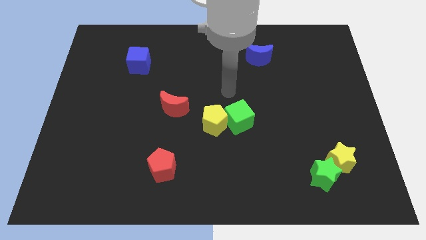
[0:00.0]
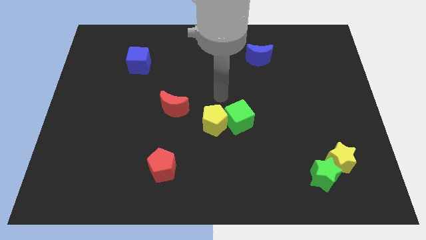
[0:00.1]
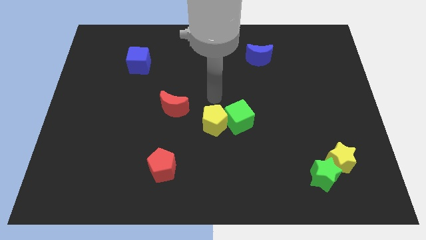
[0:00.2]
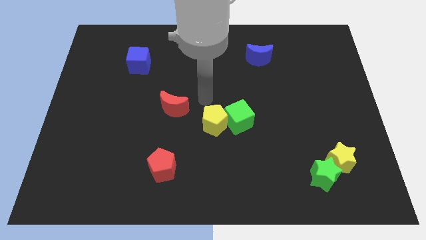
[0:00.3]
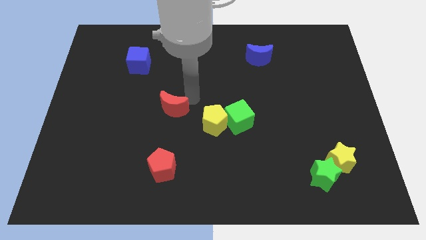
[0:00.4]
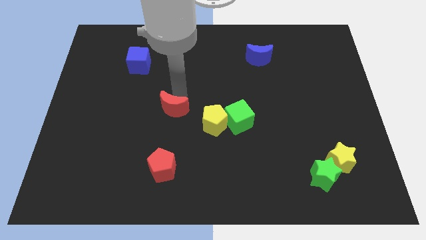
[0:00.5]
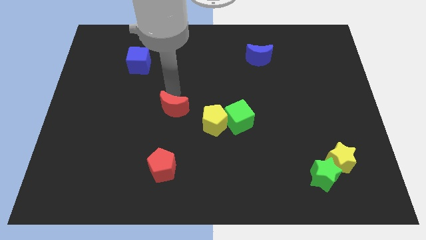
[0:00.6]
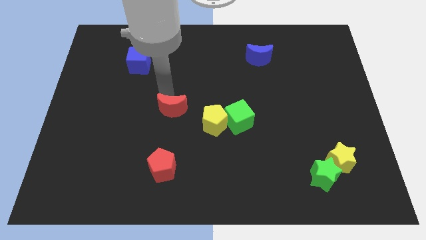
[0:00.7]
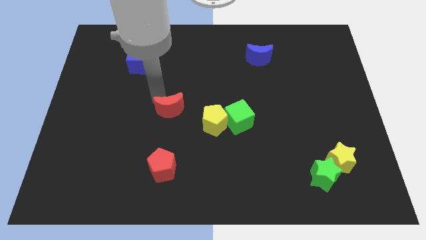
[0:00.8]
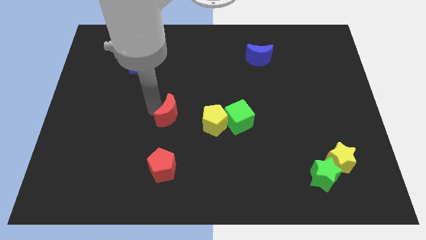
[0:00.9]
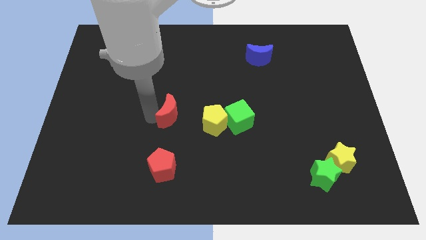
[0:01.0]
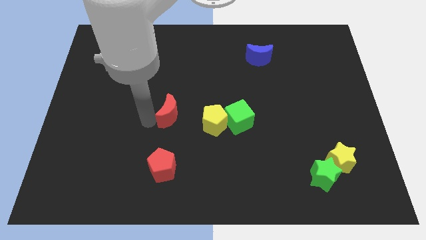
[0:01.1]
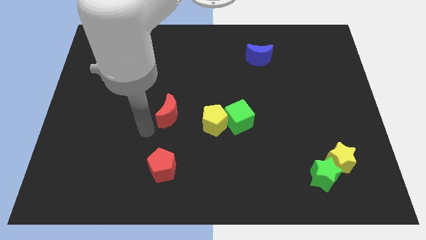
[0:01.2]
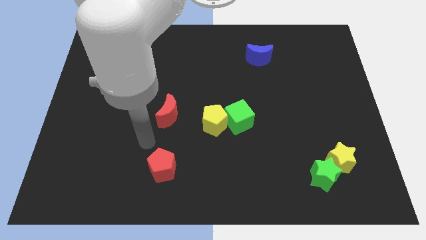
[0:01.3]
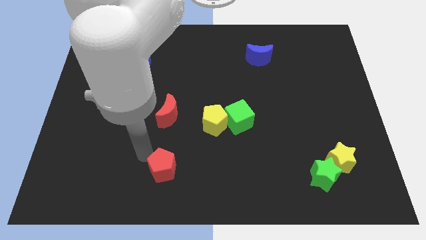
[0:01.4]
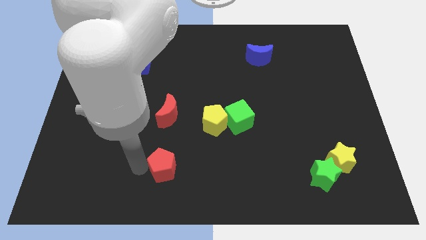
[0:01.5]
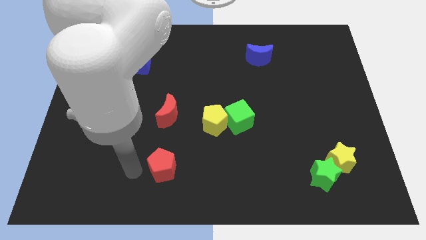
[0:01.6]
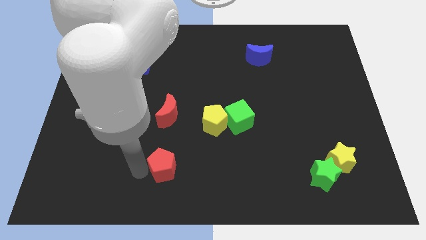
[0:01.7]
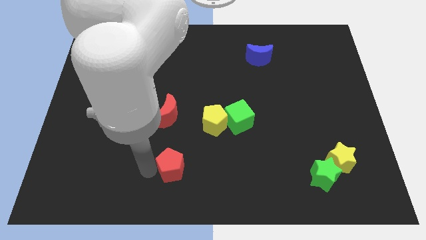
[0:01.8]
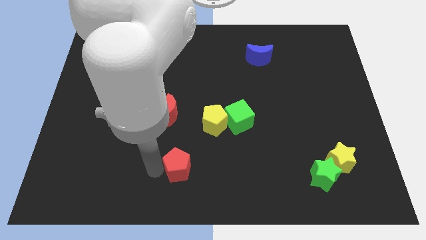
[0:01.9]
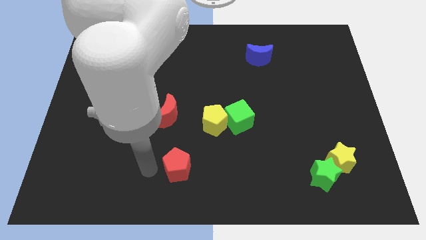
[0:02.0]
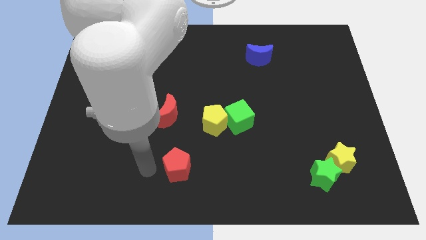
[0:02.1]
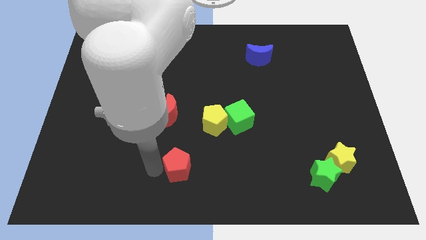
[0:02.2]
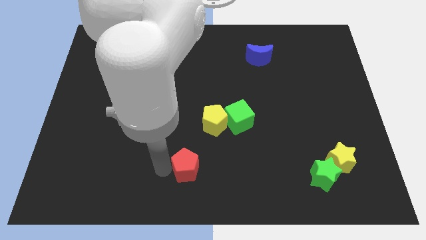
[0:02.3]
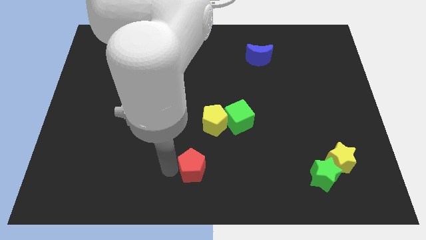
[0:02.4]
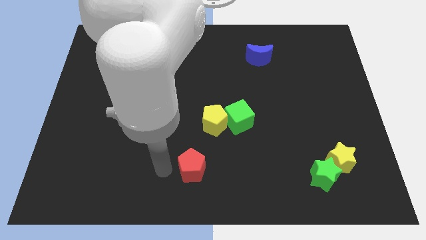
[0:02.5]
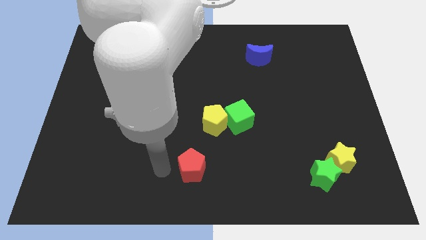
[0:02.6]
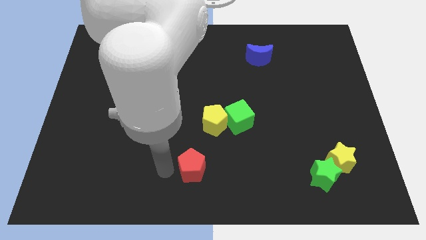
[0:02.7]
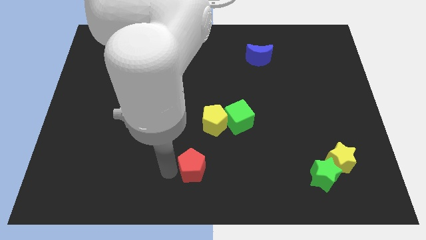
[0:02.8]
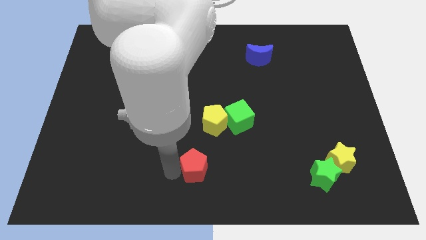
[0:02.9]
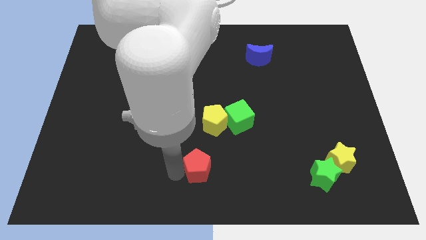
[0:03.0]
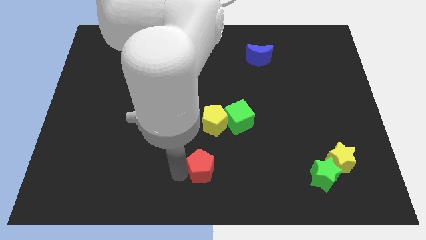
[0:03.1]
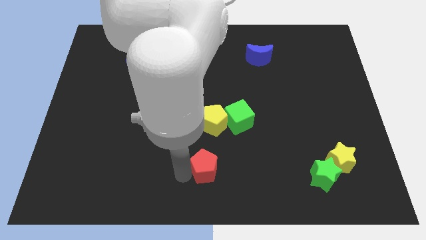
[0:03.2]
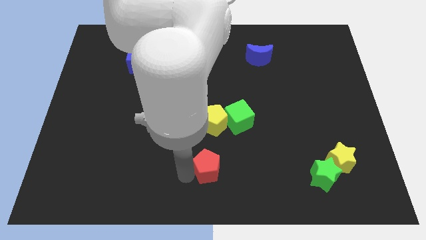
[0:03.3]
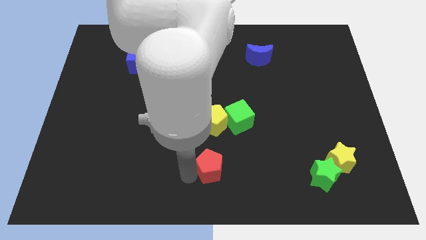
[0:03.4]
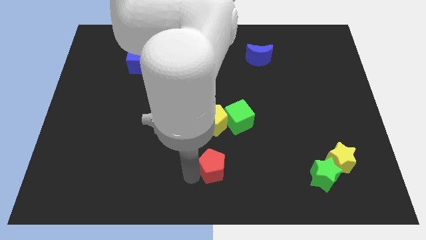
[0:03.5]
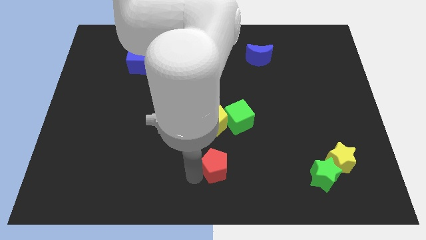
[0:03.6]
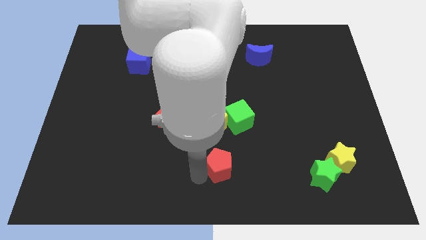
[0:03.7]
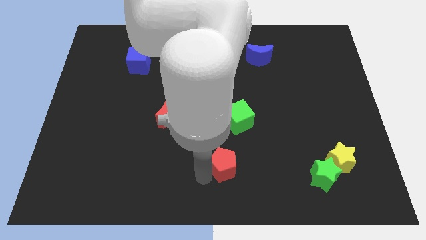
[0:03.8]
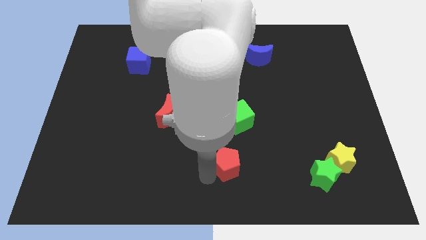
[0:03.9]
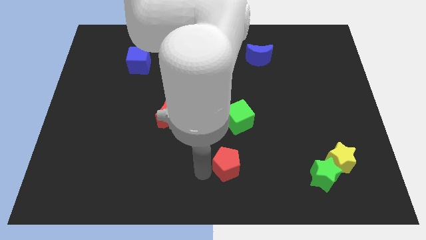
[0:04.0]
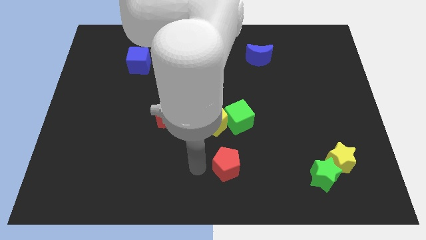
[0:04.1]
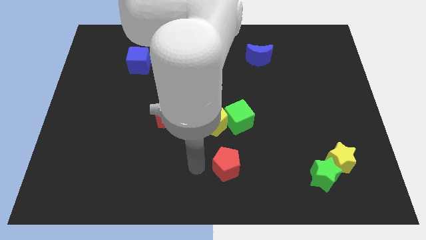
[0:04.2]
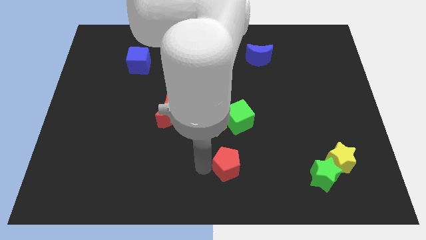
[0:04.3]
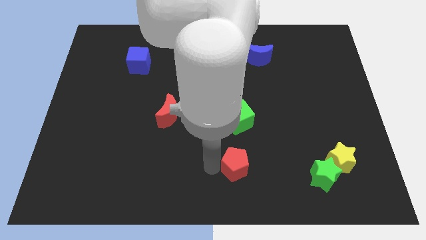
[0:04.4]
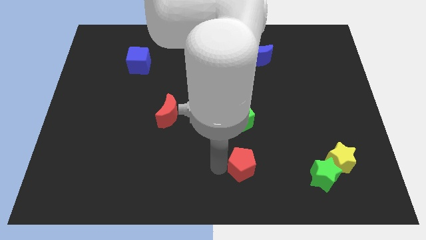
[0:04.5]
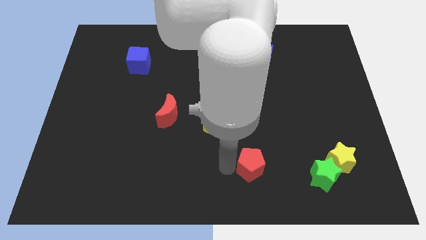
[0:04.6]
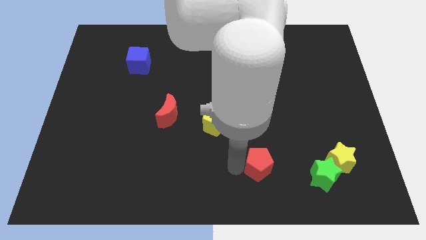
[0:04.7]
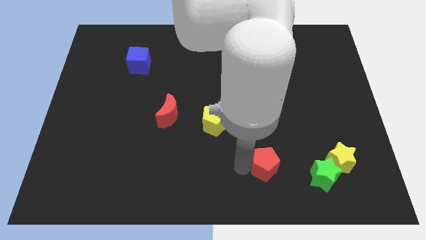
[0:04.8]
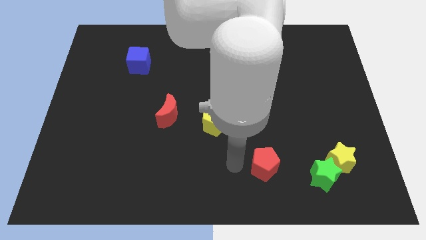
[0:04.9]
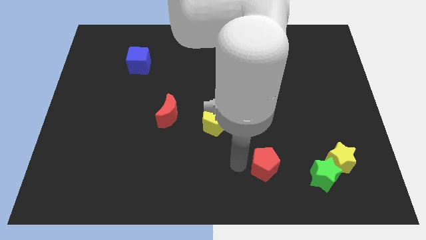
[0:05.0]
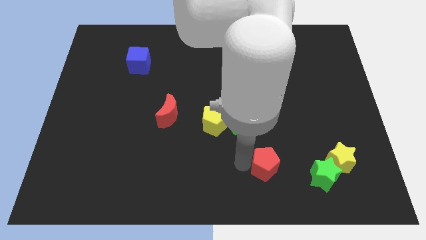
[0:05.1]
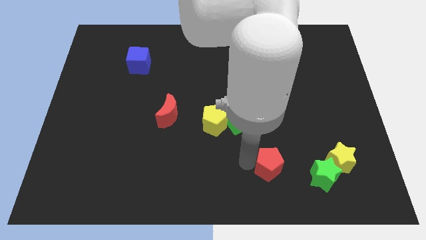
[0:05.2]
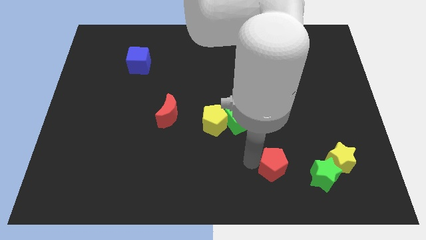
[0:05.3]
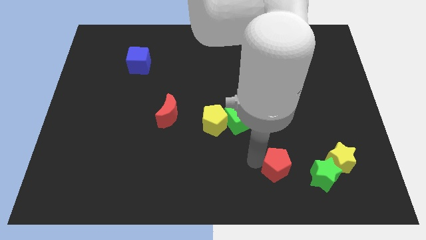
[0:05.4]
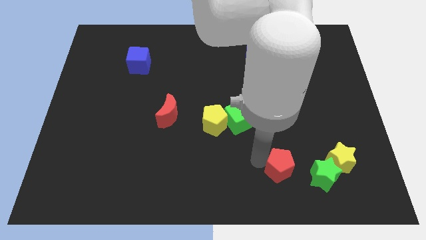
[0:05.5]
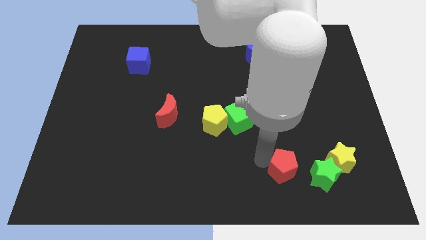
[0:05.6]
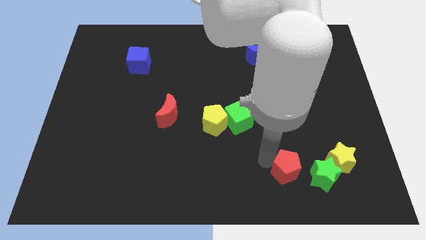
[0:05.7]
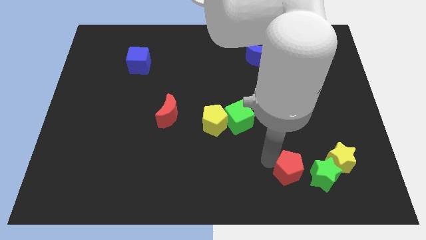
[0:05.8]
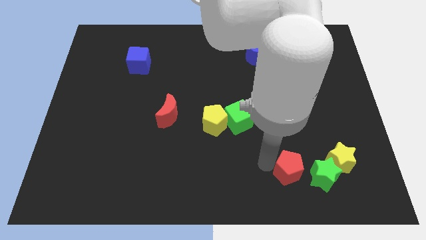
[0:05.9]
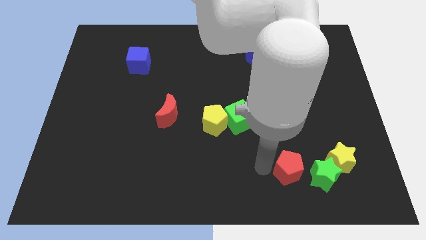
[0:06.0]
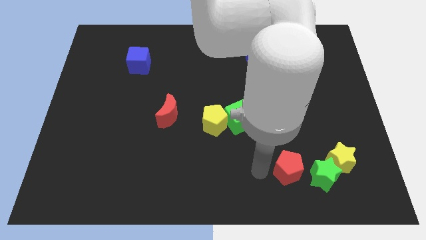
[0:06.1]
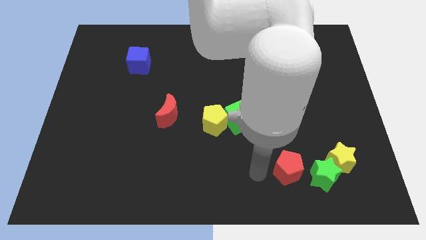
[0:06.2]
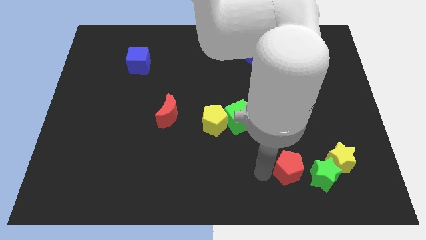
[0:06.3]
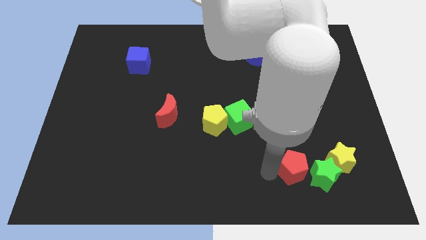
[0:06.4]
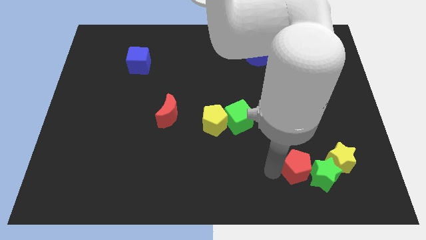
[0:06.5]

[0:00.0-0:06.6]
slide the red pentagon close to the green star
